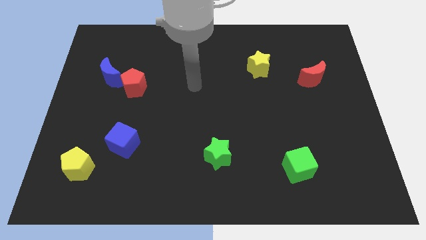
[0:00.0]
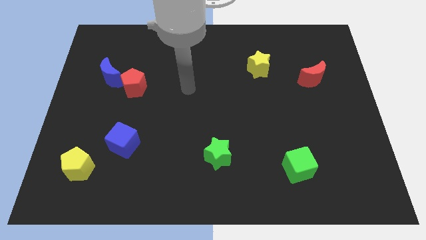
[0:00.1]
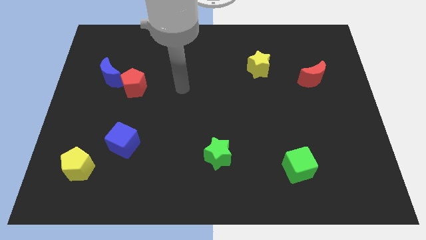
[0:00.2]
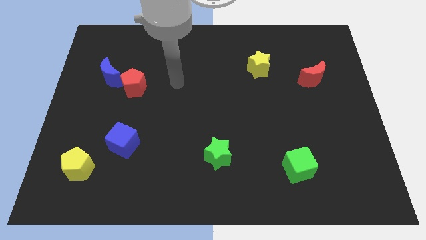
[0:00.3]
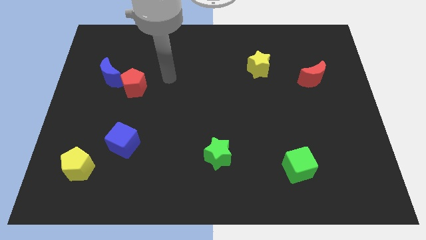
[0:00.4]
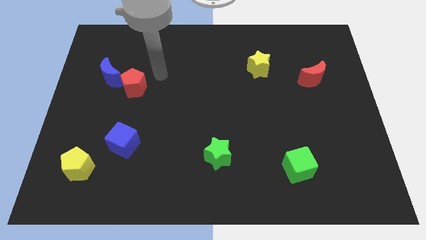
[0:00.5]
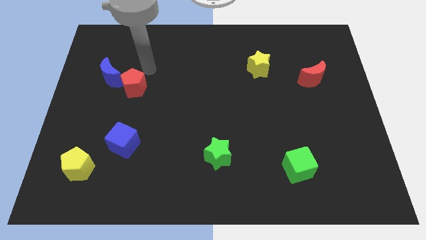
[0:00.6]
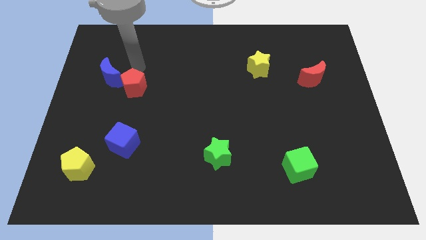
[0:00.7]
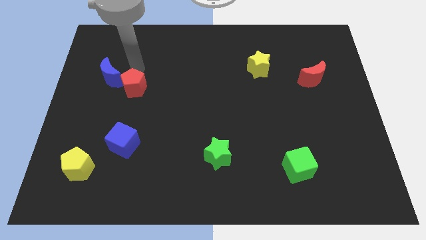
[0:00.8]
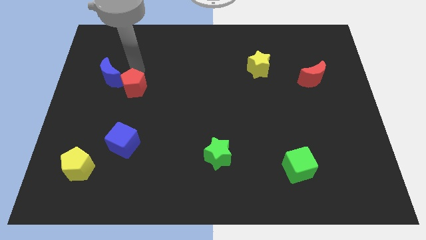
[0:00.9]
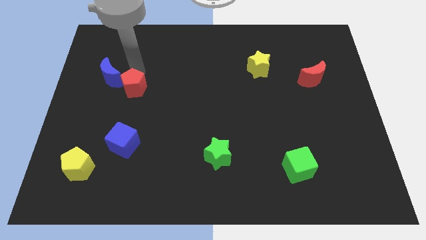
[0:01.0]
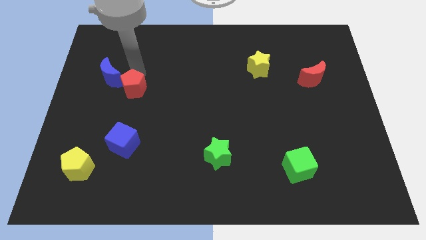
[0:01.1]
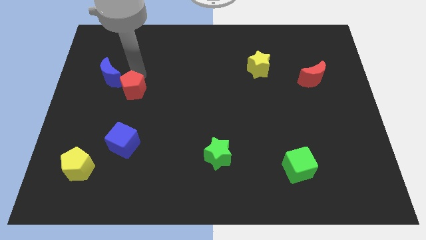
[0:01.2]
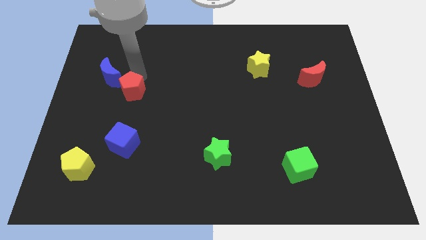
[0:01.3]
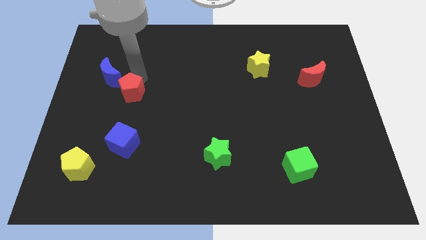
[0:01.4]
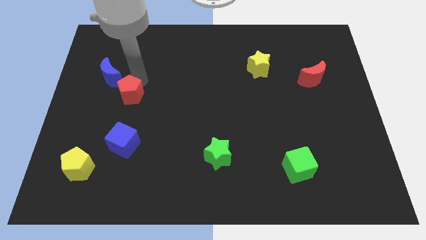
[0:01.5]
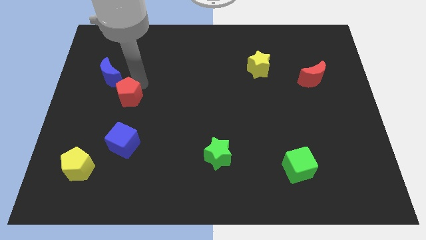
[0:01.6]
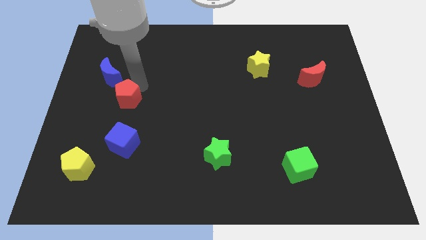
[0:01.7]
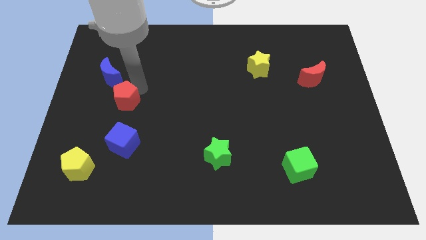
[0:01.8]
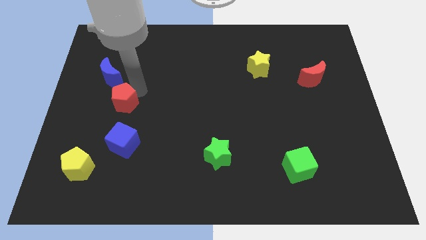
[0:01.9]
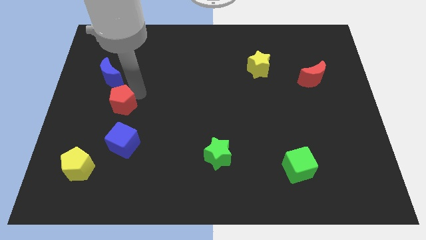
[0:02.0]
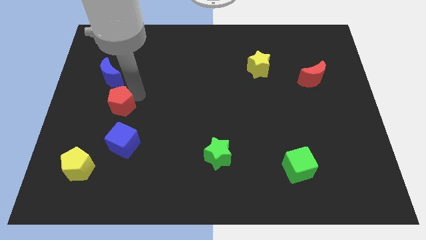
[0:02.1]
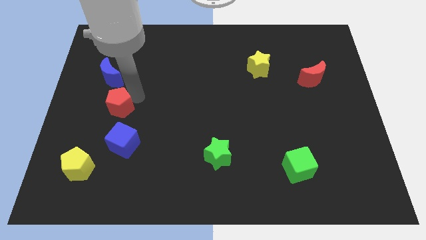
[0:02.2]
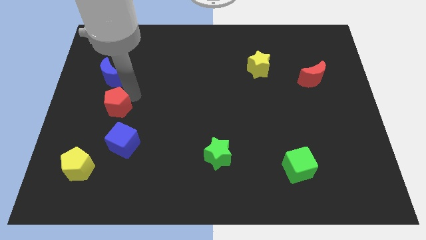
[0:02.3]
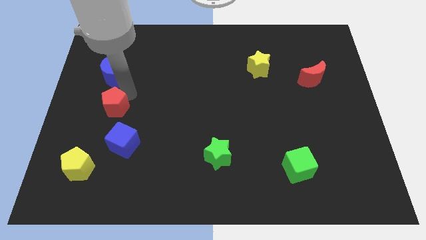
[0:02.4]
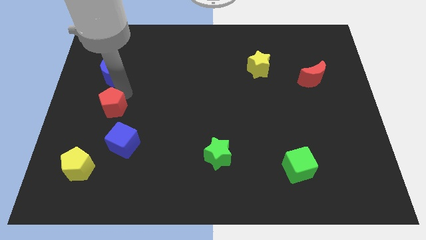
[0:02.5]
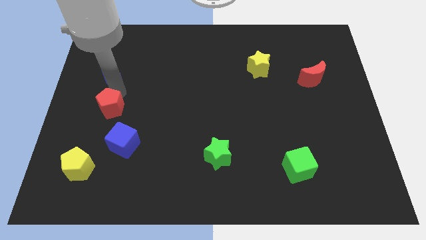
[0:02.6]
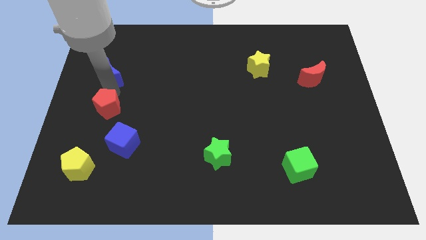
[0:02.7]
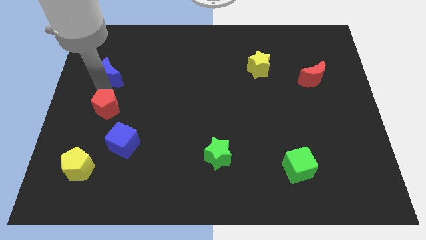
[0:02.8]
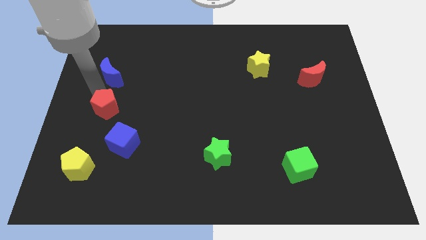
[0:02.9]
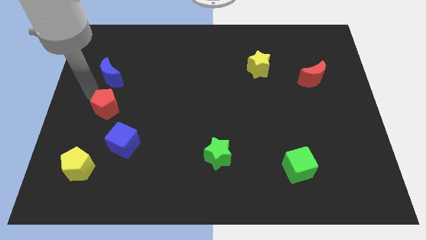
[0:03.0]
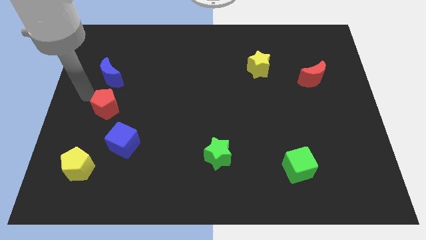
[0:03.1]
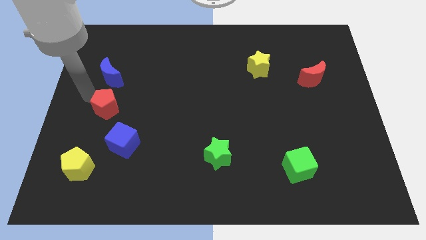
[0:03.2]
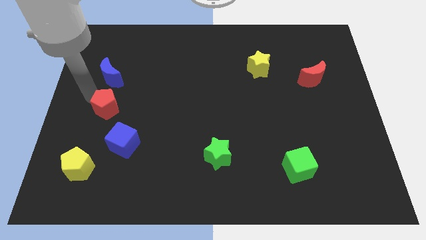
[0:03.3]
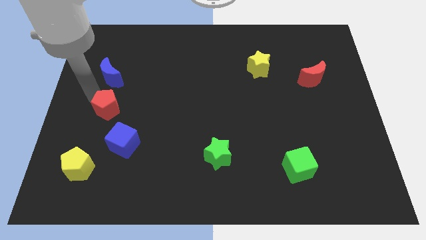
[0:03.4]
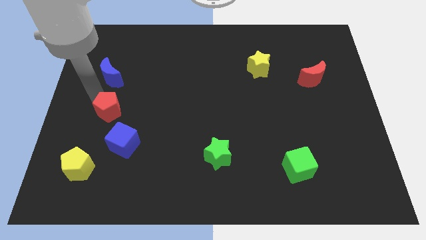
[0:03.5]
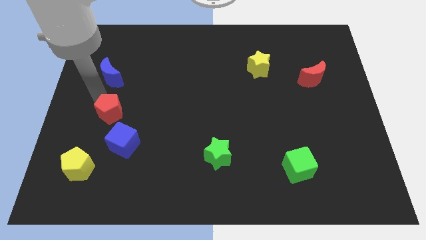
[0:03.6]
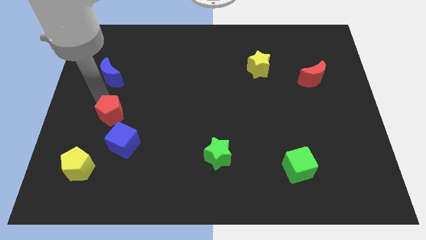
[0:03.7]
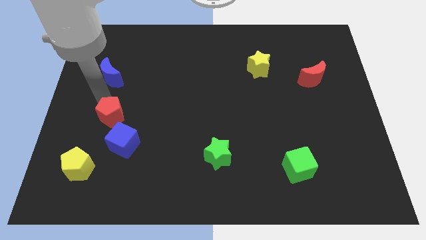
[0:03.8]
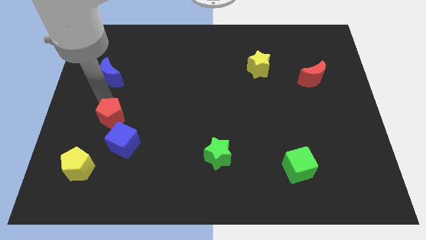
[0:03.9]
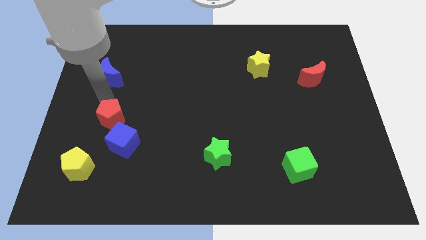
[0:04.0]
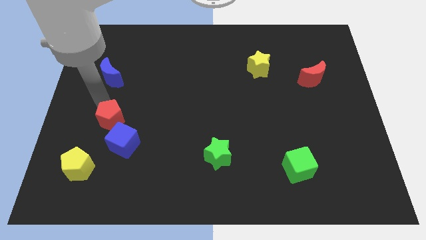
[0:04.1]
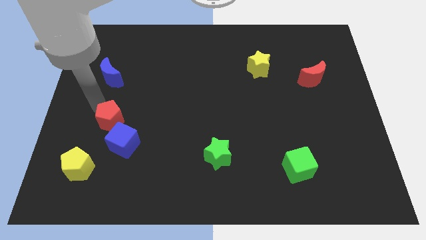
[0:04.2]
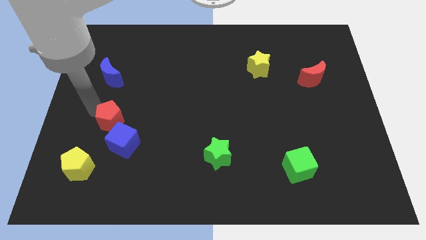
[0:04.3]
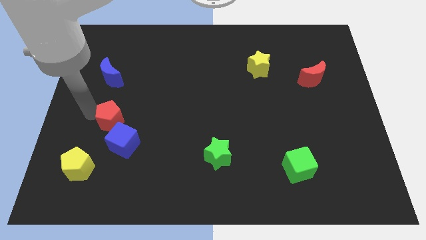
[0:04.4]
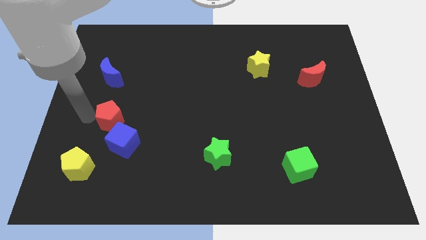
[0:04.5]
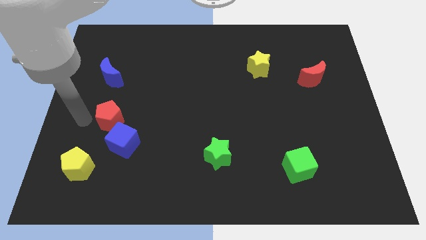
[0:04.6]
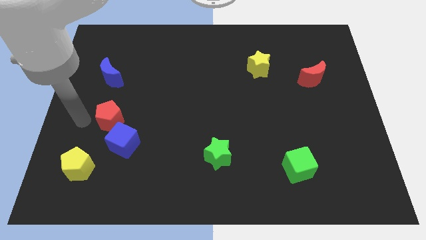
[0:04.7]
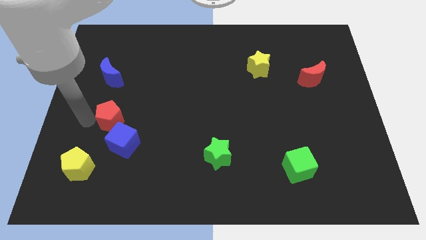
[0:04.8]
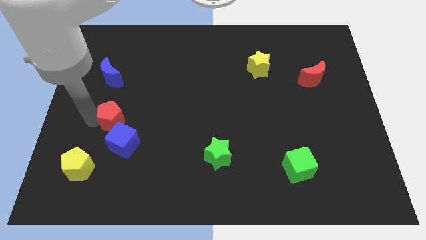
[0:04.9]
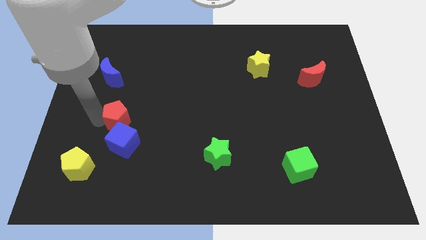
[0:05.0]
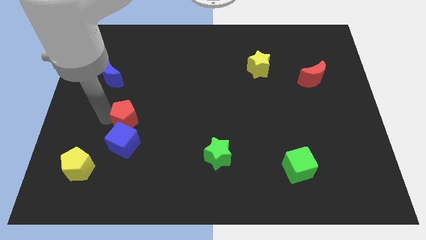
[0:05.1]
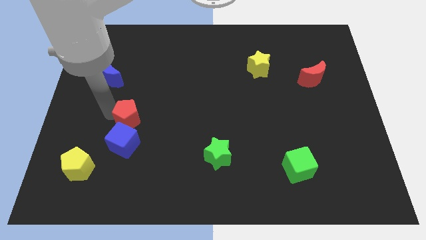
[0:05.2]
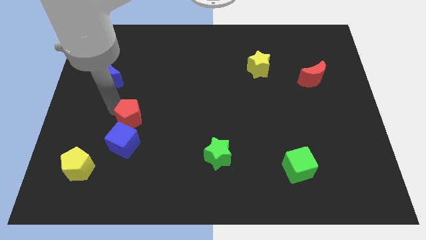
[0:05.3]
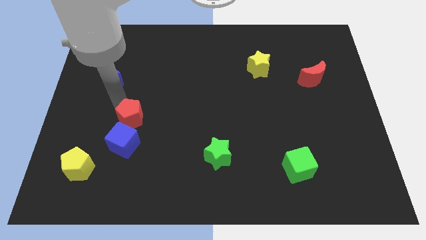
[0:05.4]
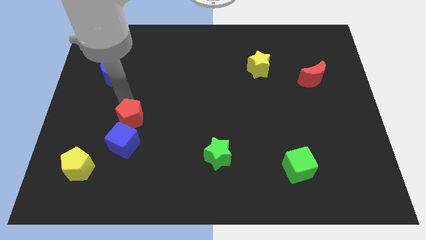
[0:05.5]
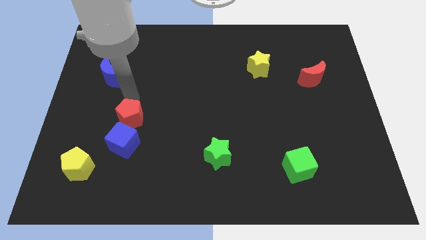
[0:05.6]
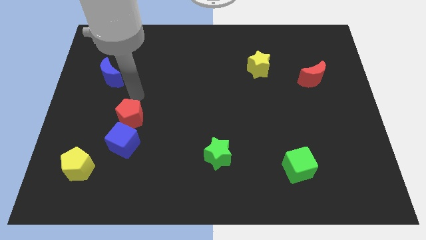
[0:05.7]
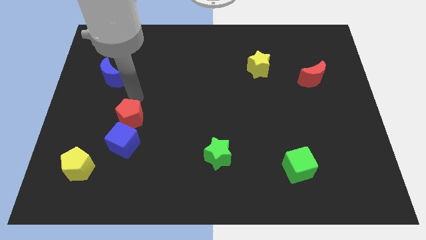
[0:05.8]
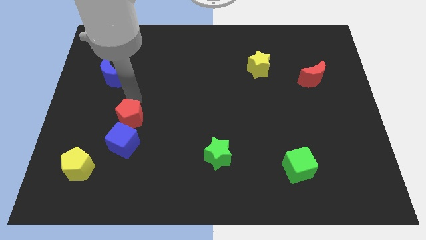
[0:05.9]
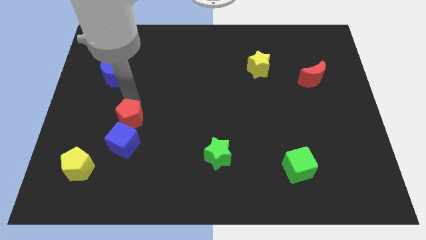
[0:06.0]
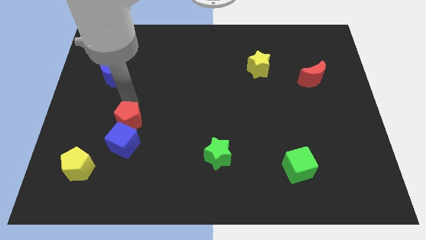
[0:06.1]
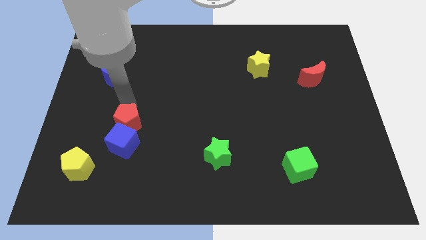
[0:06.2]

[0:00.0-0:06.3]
put the red pentagon close to the blue cube

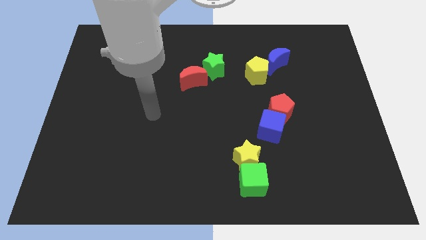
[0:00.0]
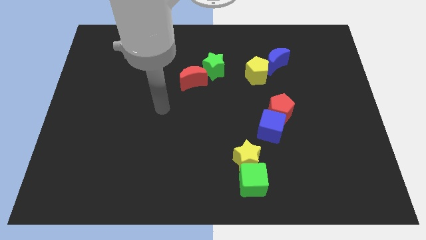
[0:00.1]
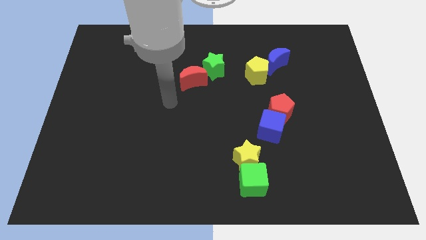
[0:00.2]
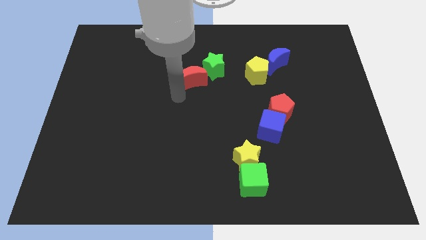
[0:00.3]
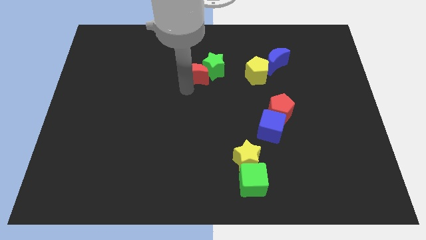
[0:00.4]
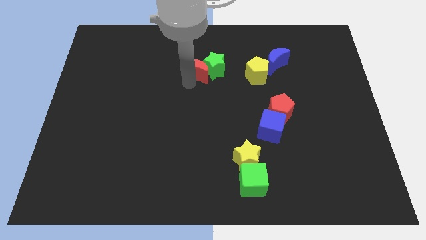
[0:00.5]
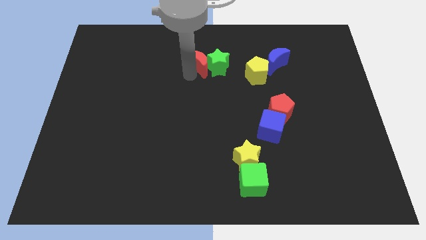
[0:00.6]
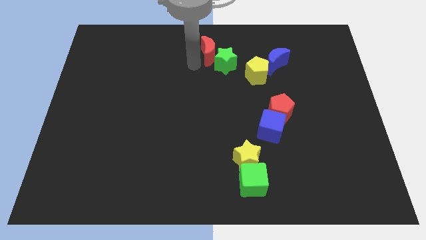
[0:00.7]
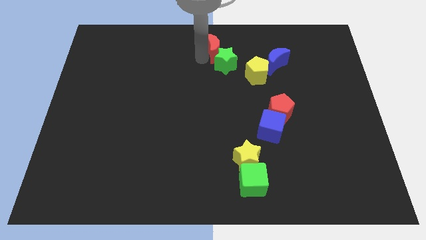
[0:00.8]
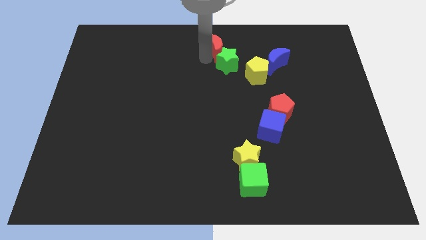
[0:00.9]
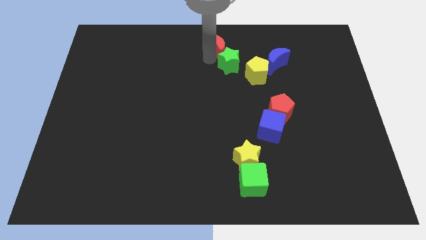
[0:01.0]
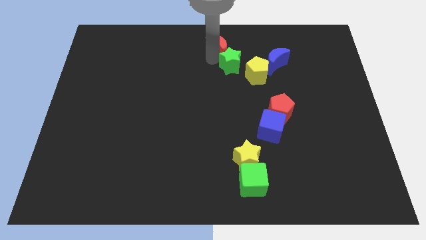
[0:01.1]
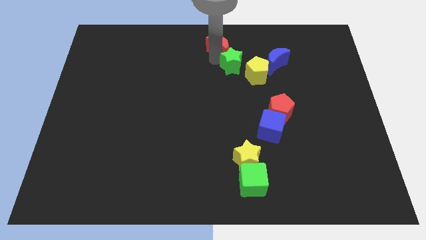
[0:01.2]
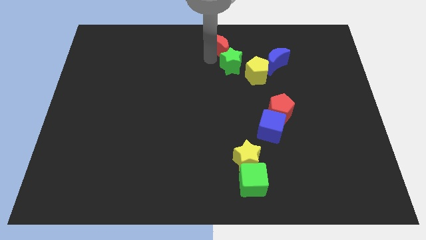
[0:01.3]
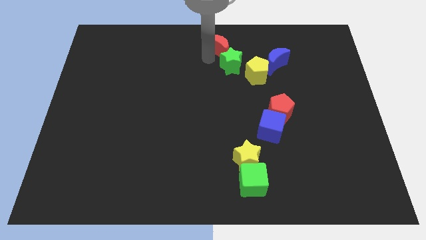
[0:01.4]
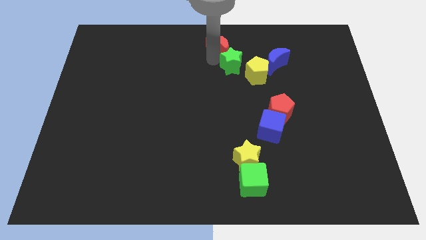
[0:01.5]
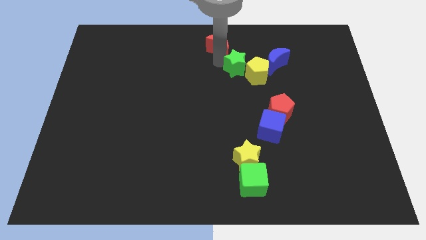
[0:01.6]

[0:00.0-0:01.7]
put the green star next to the yellow pentagon
